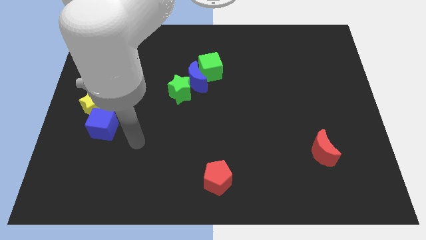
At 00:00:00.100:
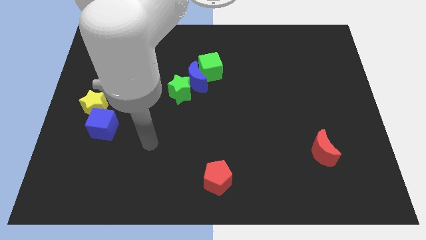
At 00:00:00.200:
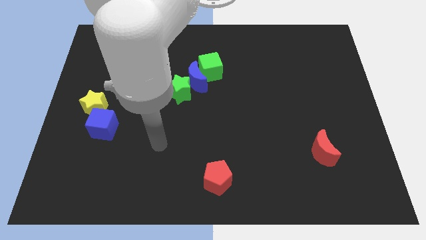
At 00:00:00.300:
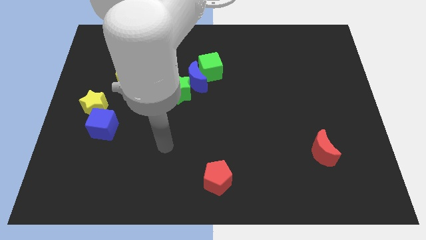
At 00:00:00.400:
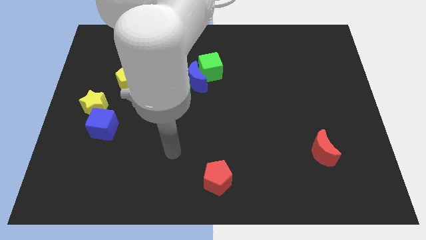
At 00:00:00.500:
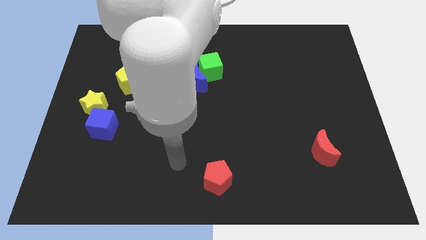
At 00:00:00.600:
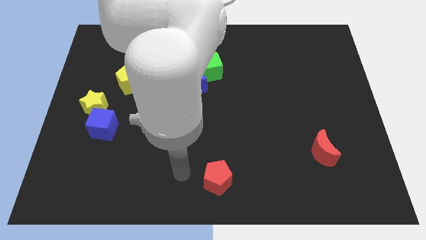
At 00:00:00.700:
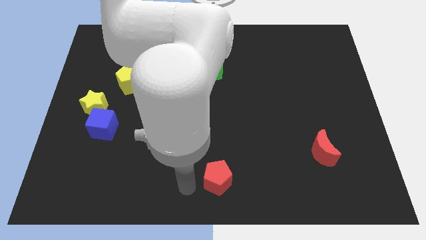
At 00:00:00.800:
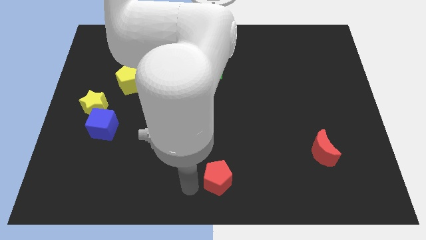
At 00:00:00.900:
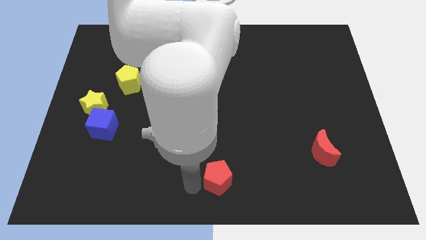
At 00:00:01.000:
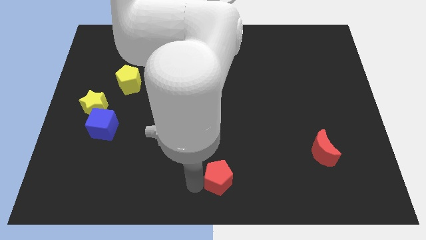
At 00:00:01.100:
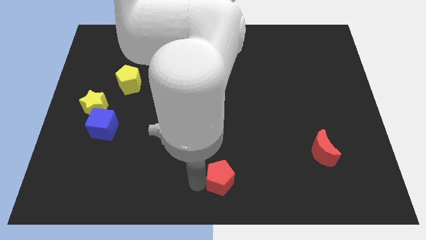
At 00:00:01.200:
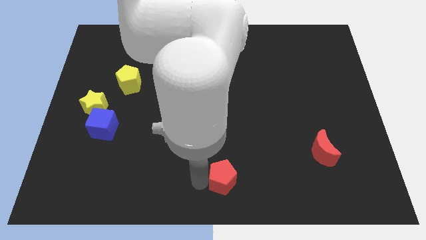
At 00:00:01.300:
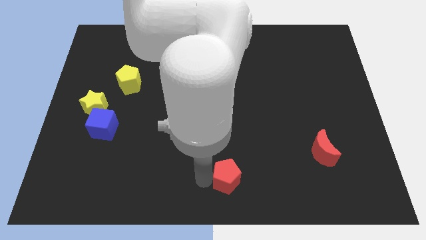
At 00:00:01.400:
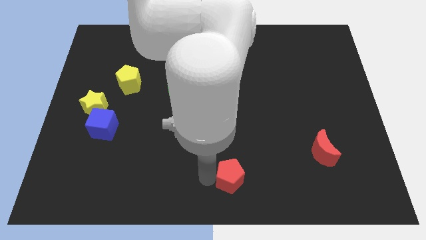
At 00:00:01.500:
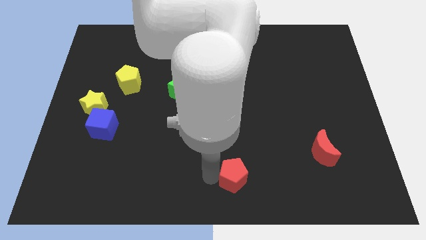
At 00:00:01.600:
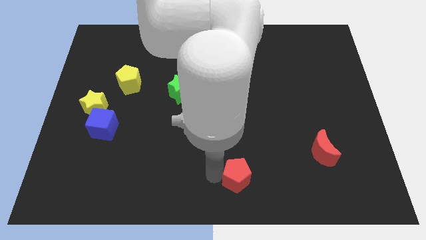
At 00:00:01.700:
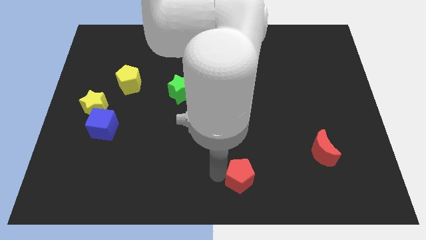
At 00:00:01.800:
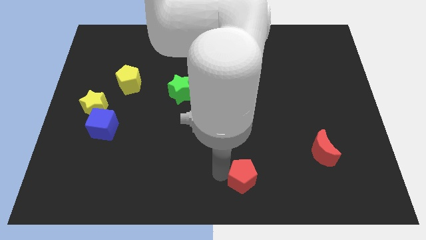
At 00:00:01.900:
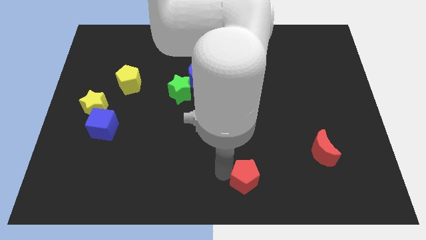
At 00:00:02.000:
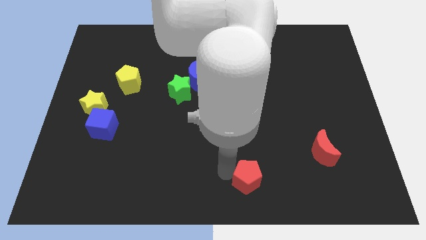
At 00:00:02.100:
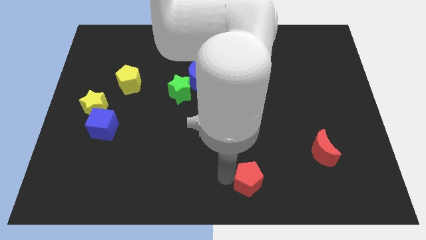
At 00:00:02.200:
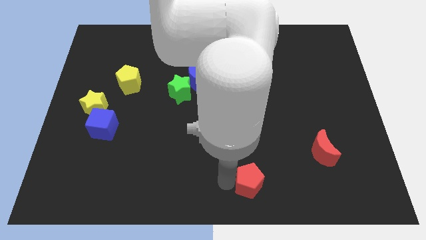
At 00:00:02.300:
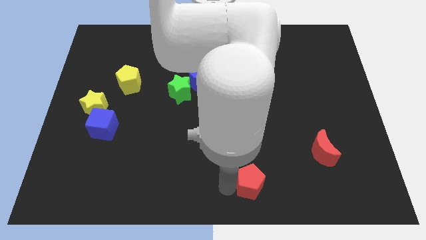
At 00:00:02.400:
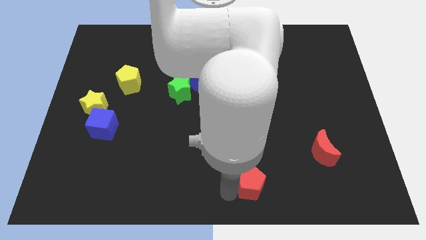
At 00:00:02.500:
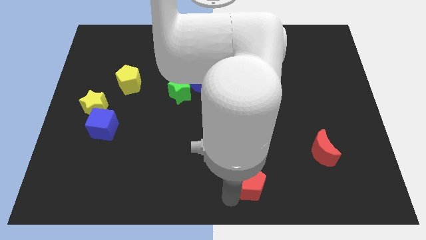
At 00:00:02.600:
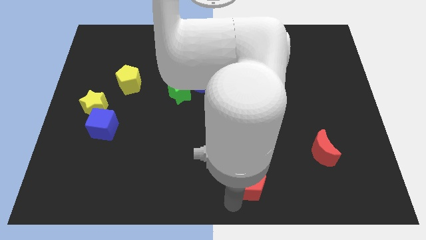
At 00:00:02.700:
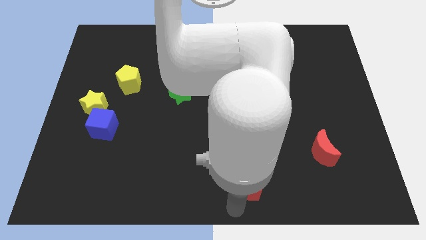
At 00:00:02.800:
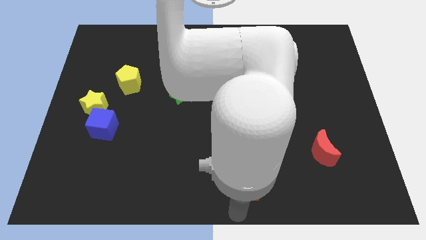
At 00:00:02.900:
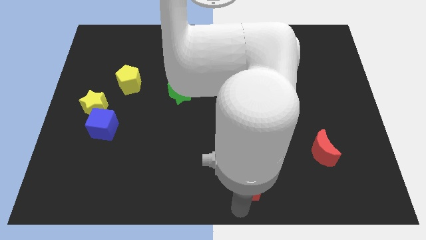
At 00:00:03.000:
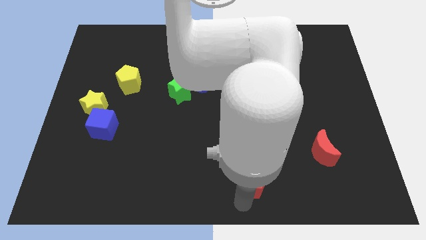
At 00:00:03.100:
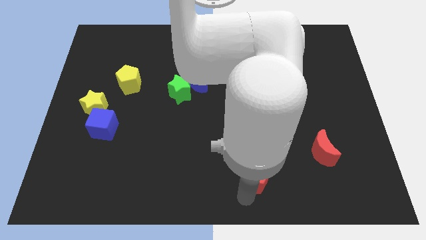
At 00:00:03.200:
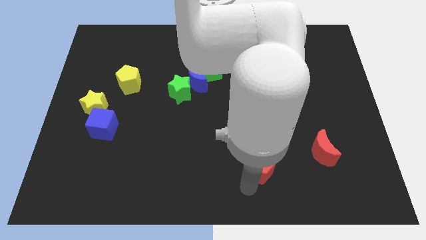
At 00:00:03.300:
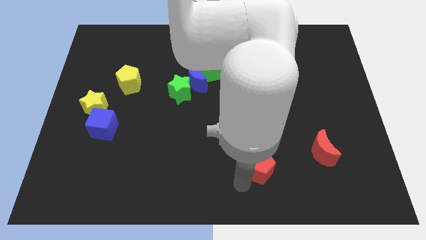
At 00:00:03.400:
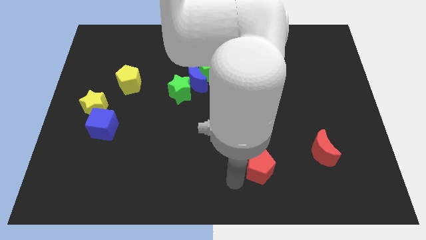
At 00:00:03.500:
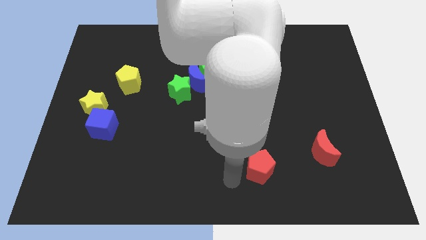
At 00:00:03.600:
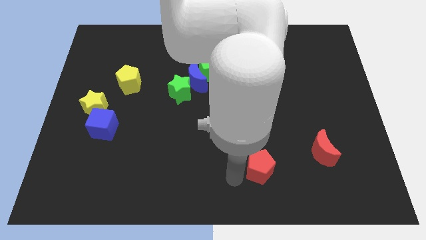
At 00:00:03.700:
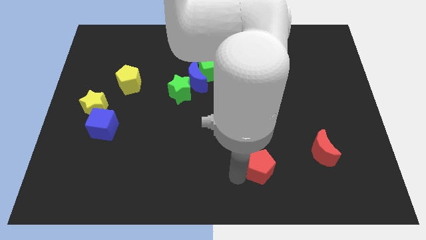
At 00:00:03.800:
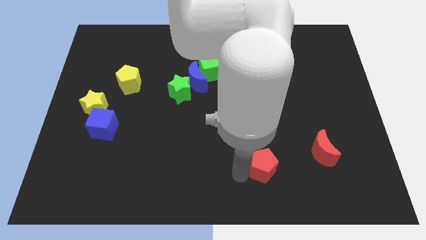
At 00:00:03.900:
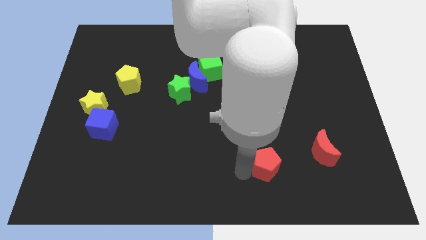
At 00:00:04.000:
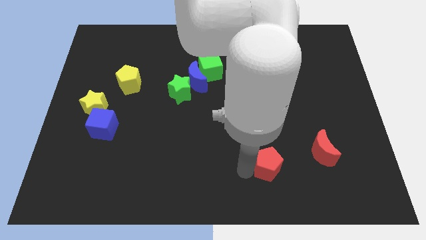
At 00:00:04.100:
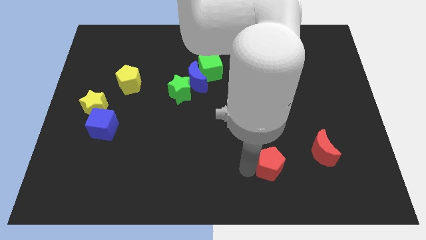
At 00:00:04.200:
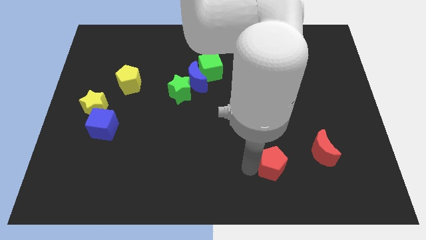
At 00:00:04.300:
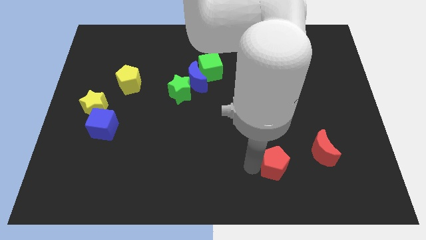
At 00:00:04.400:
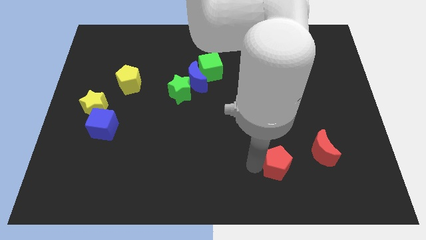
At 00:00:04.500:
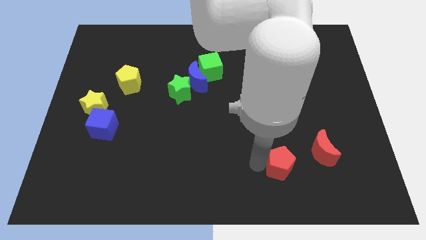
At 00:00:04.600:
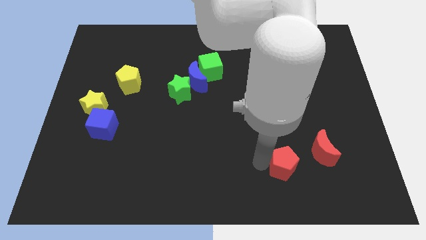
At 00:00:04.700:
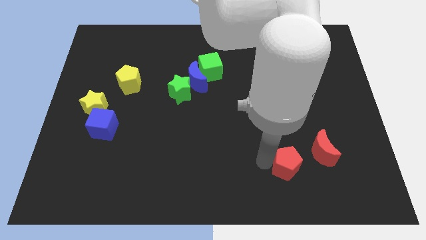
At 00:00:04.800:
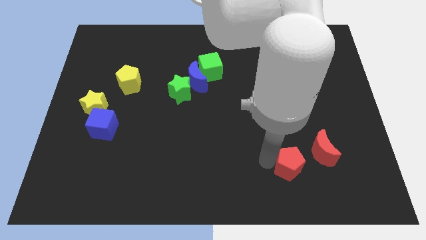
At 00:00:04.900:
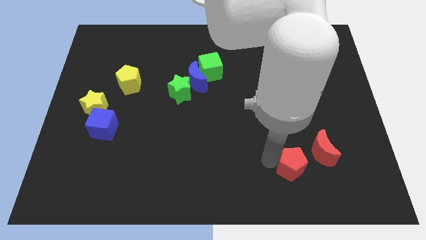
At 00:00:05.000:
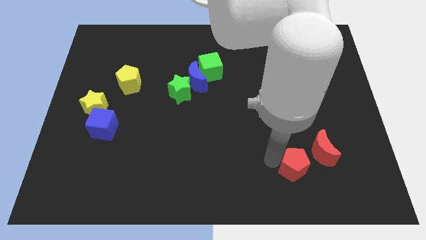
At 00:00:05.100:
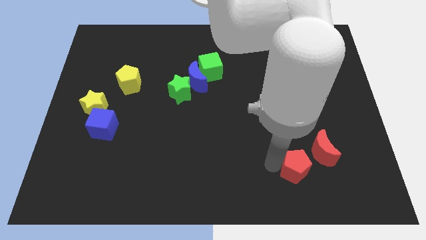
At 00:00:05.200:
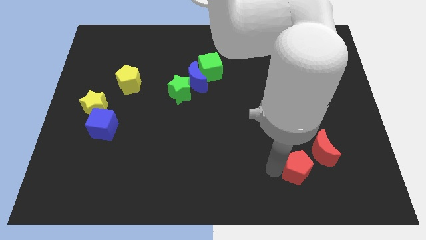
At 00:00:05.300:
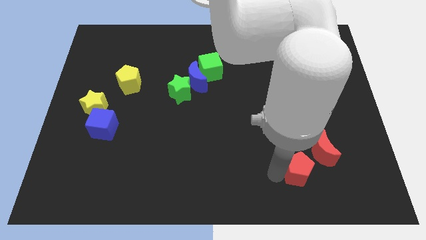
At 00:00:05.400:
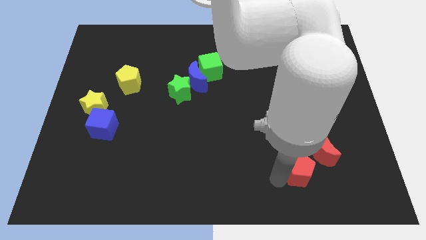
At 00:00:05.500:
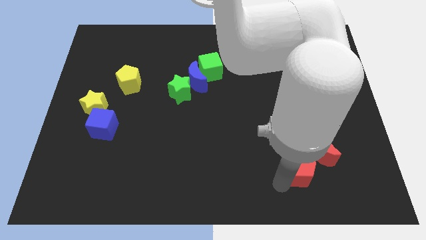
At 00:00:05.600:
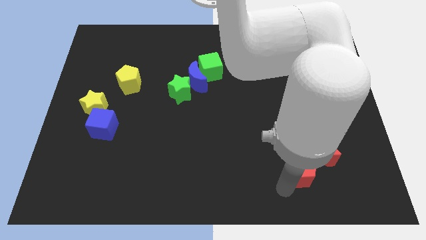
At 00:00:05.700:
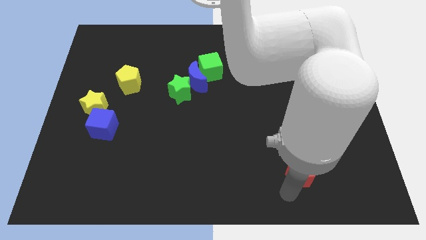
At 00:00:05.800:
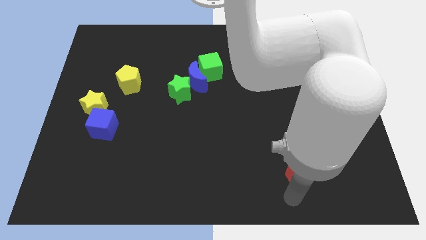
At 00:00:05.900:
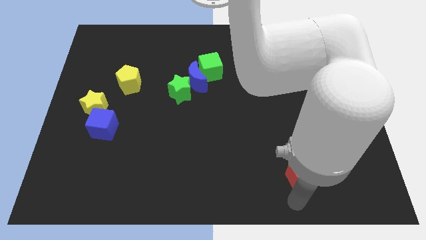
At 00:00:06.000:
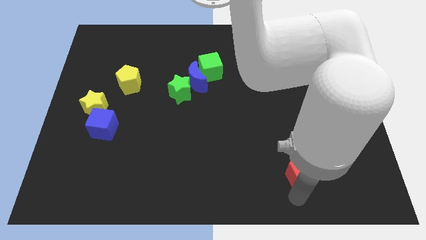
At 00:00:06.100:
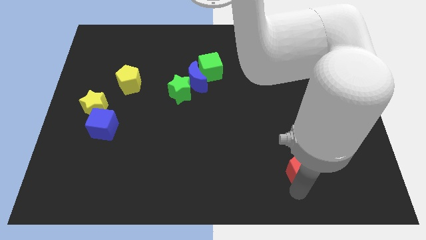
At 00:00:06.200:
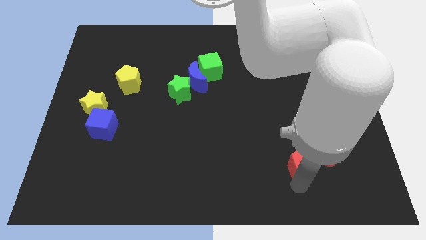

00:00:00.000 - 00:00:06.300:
move the red pentagon to the red moon

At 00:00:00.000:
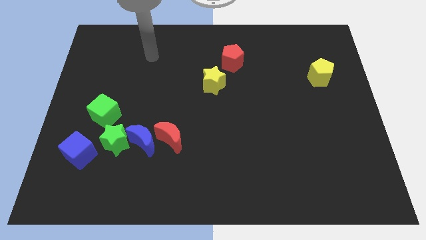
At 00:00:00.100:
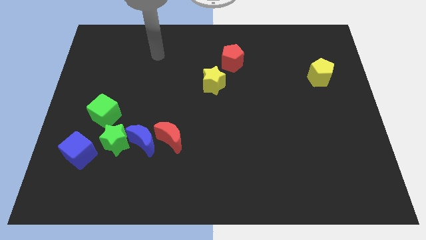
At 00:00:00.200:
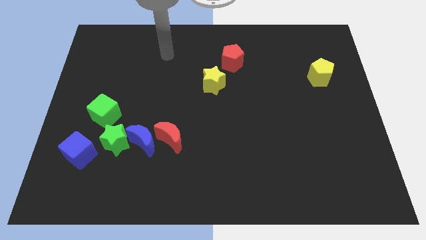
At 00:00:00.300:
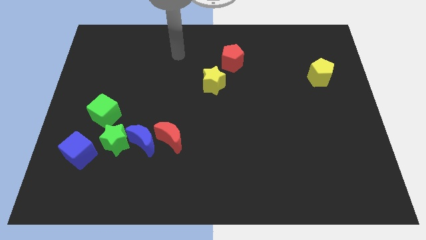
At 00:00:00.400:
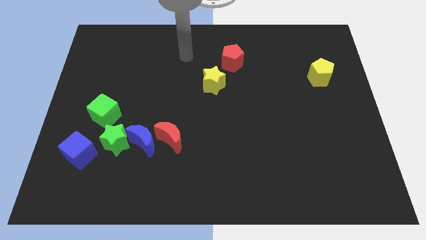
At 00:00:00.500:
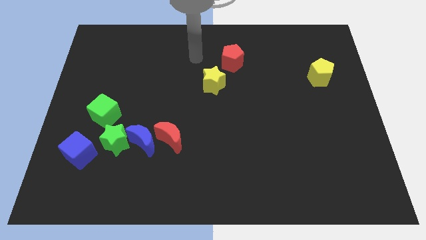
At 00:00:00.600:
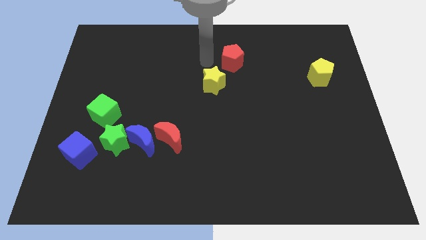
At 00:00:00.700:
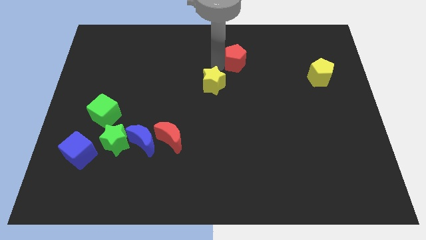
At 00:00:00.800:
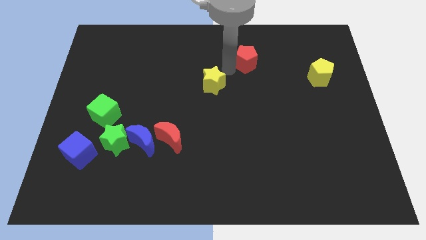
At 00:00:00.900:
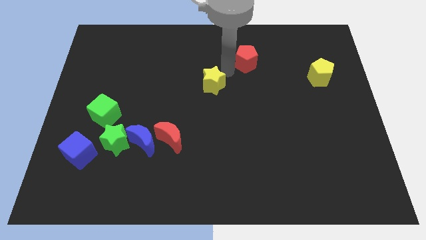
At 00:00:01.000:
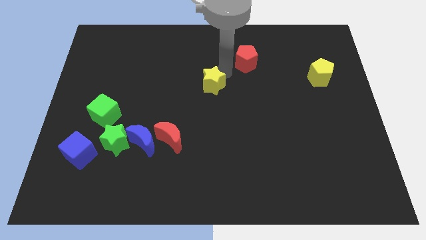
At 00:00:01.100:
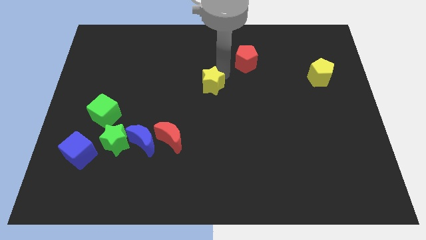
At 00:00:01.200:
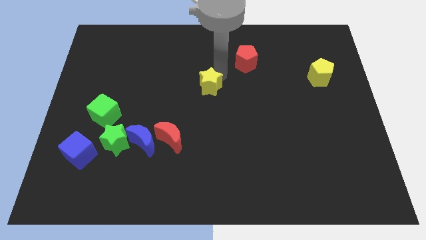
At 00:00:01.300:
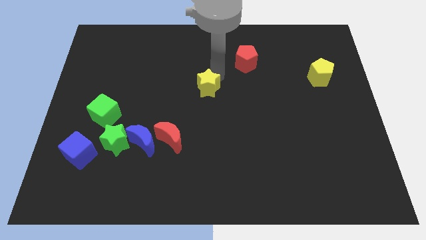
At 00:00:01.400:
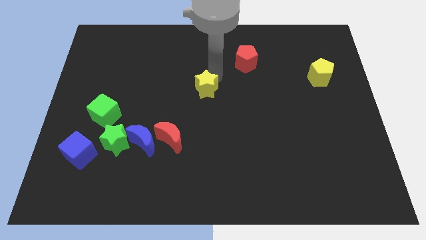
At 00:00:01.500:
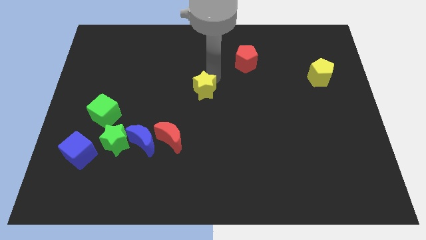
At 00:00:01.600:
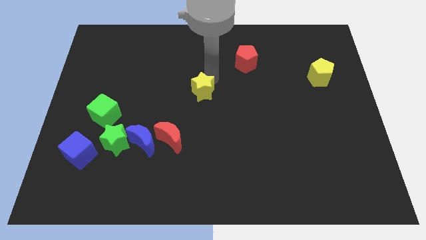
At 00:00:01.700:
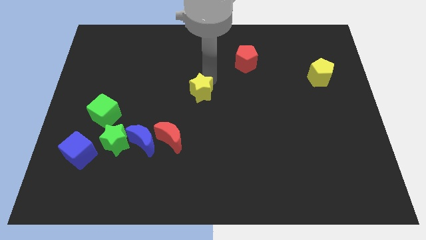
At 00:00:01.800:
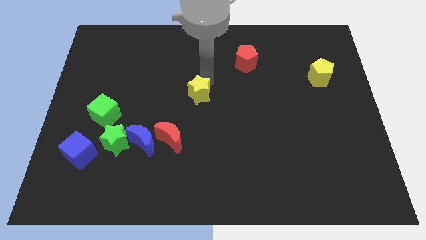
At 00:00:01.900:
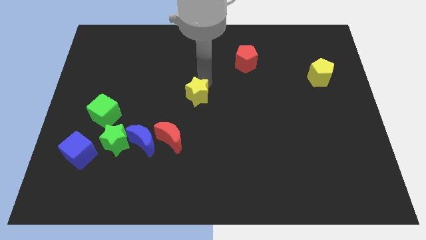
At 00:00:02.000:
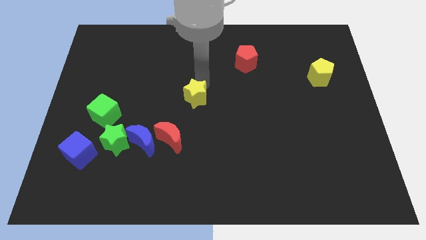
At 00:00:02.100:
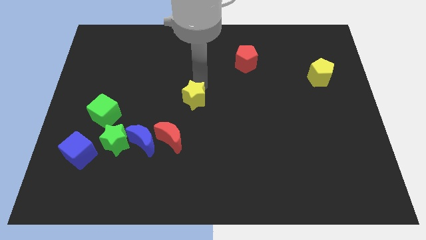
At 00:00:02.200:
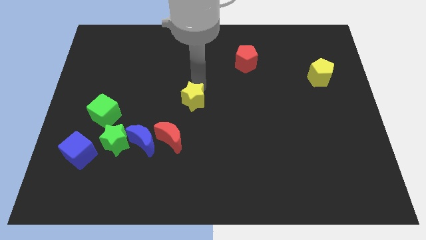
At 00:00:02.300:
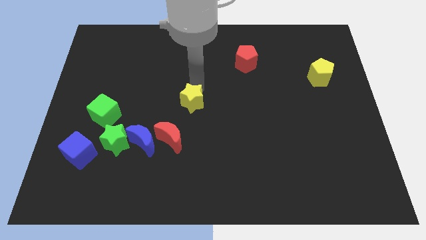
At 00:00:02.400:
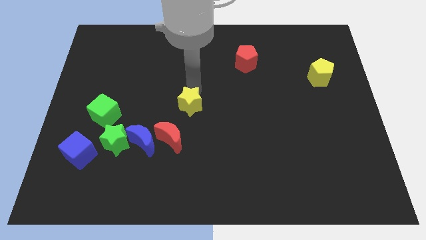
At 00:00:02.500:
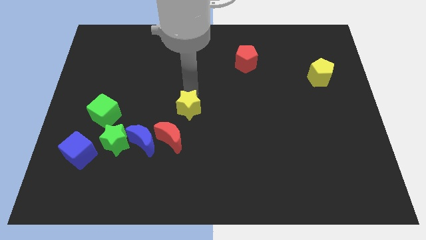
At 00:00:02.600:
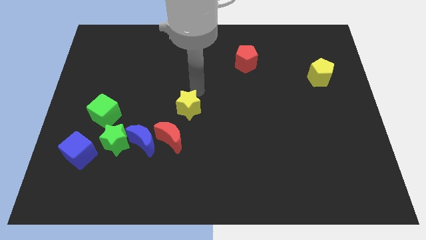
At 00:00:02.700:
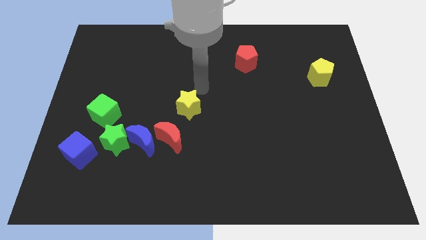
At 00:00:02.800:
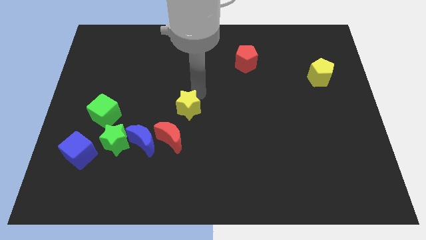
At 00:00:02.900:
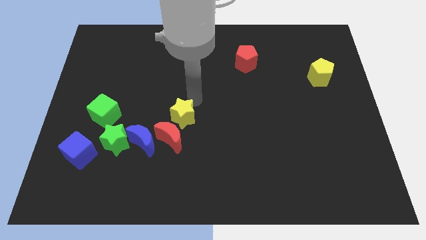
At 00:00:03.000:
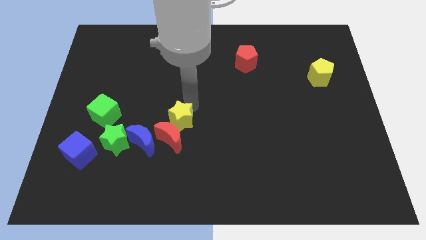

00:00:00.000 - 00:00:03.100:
move the yellow star close to the red moon
